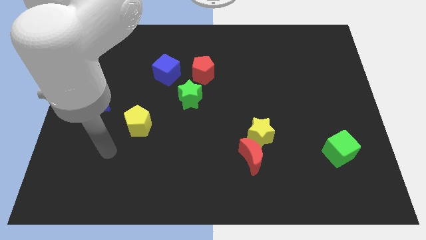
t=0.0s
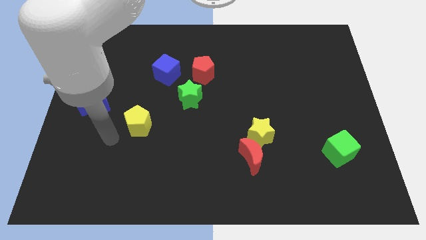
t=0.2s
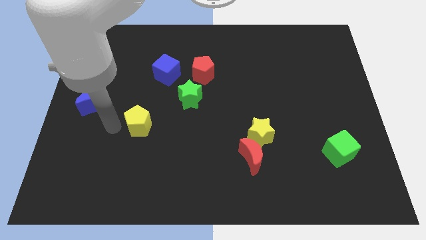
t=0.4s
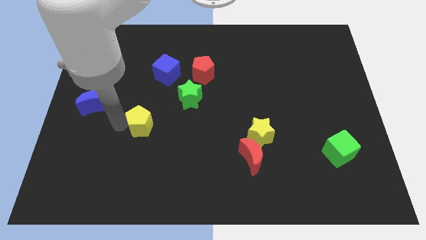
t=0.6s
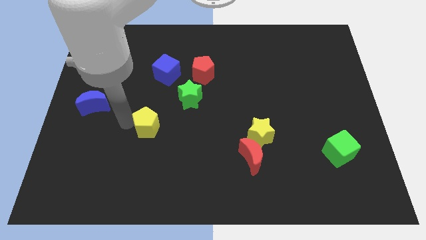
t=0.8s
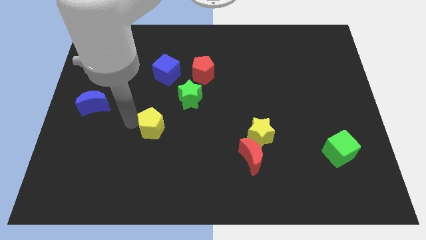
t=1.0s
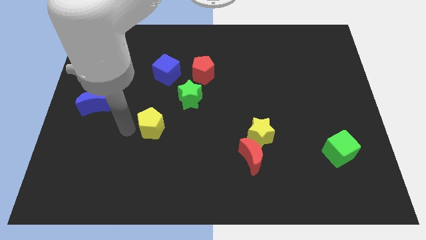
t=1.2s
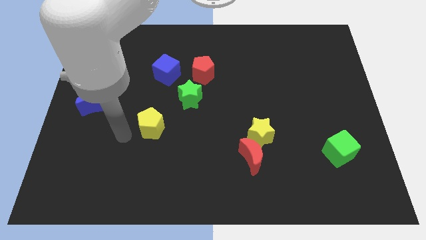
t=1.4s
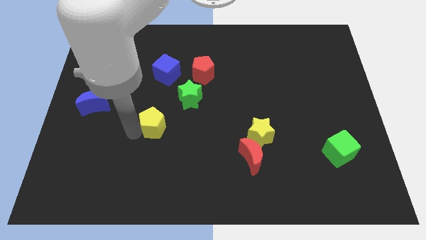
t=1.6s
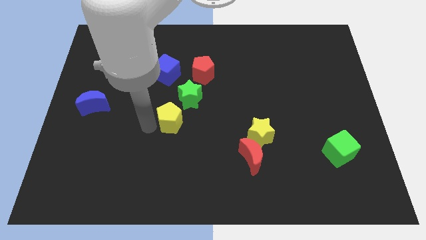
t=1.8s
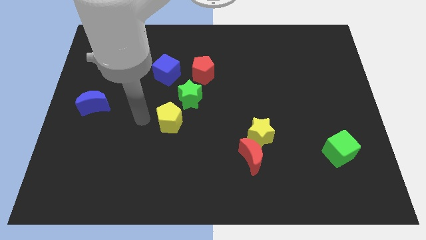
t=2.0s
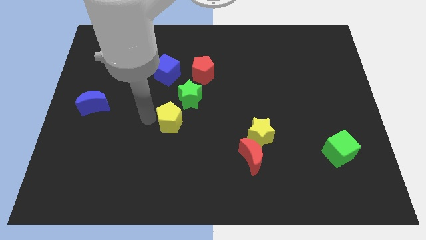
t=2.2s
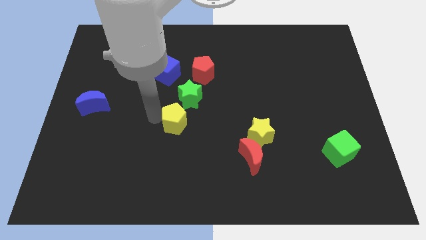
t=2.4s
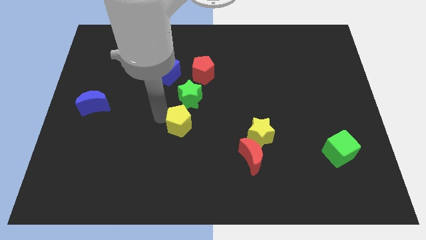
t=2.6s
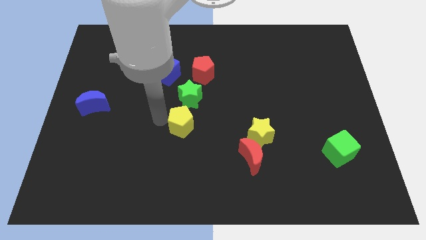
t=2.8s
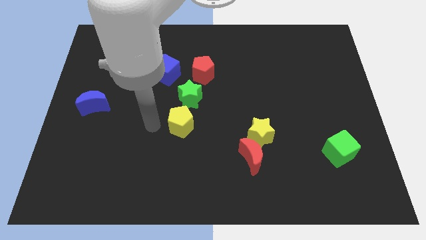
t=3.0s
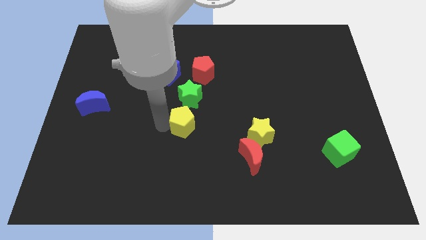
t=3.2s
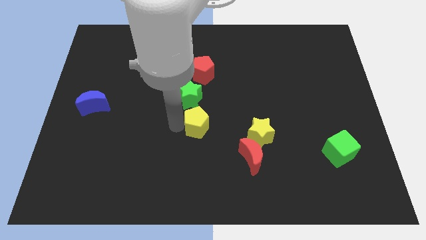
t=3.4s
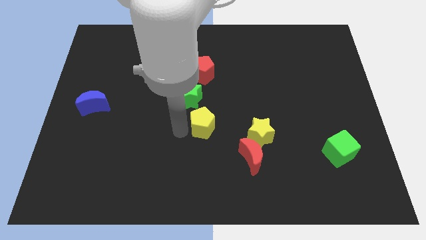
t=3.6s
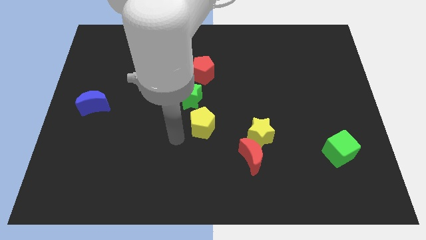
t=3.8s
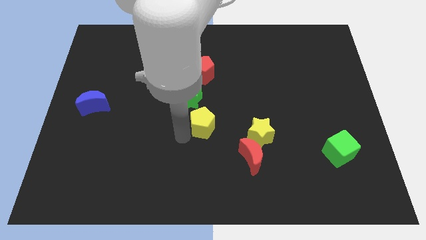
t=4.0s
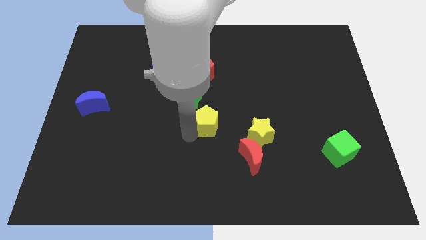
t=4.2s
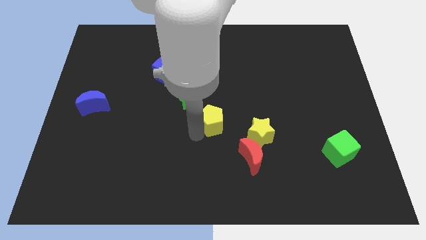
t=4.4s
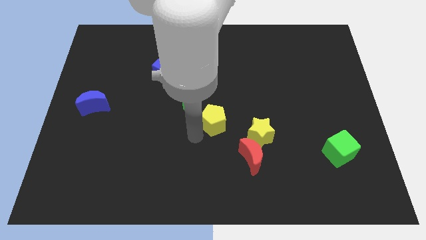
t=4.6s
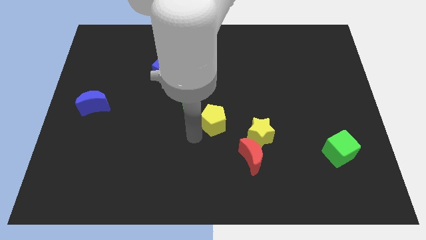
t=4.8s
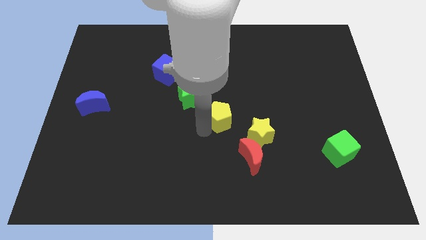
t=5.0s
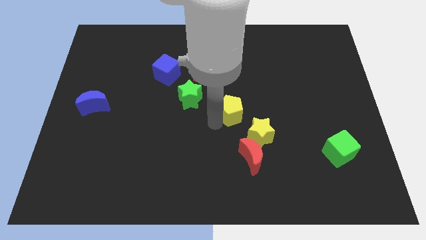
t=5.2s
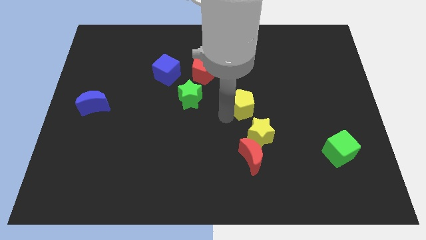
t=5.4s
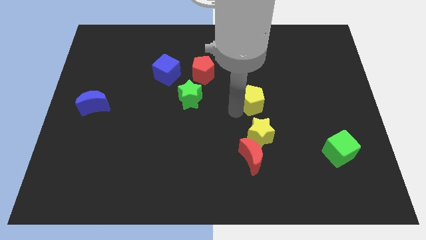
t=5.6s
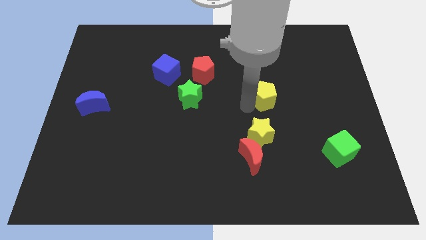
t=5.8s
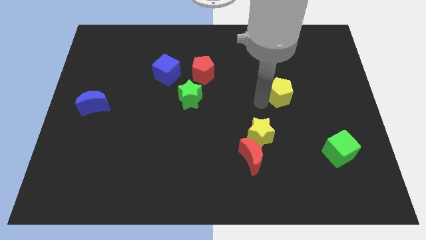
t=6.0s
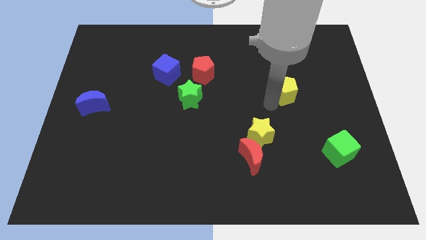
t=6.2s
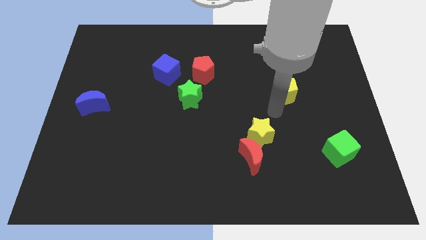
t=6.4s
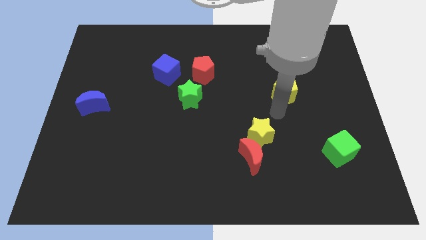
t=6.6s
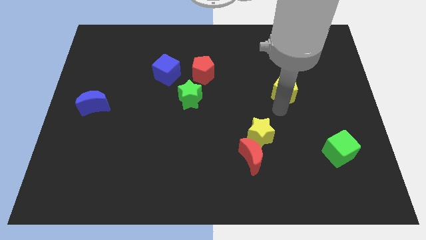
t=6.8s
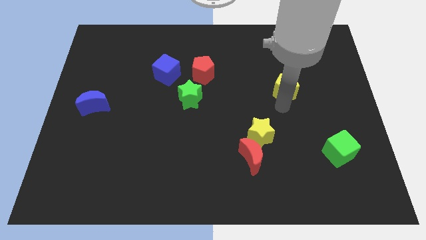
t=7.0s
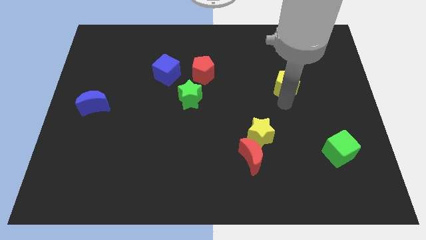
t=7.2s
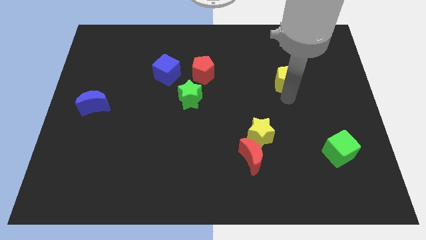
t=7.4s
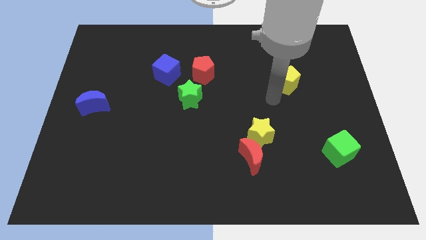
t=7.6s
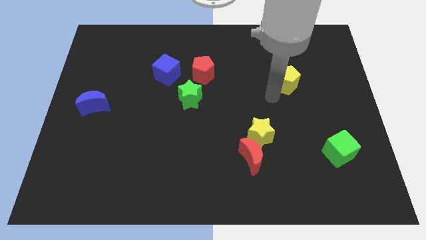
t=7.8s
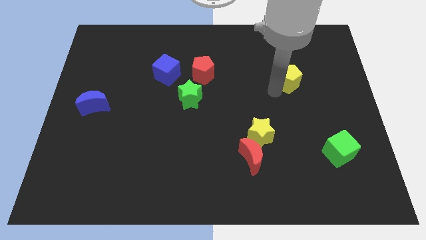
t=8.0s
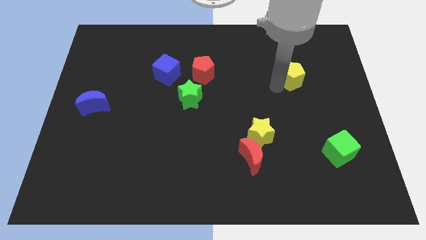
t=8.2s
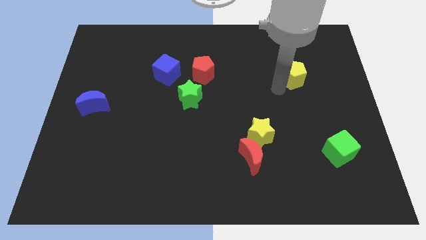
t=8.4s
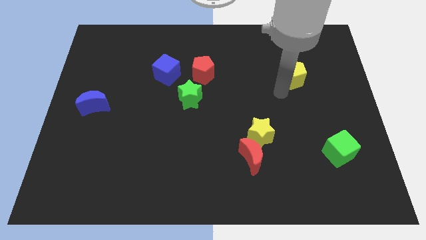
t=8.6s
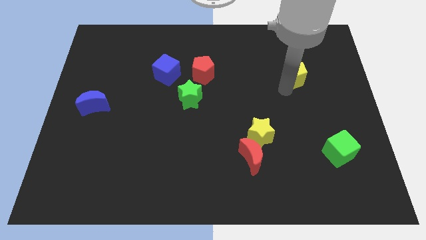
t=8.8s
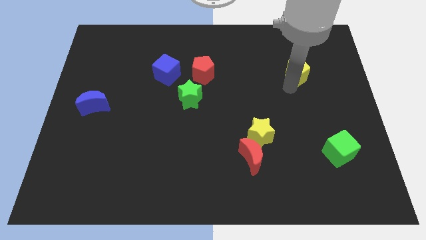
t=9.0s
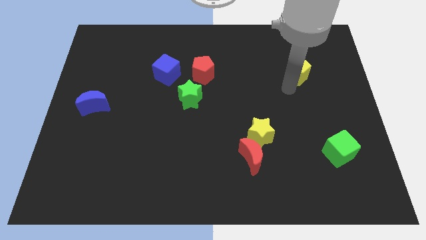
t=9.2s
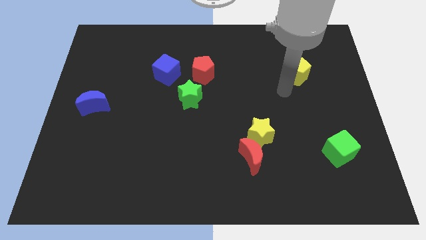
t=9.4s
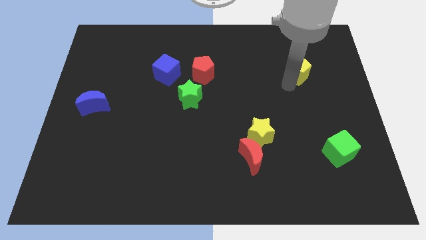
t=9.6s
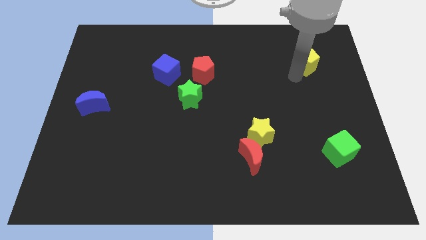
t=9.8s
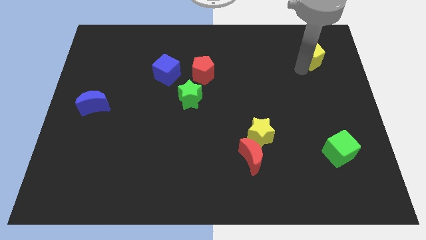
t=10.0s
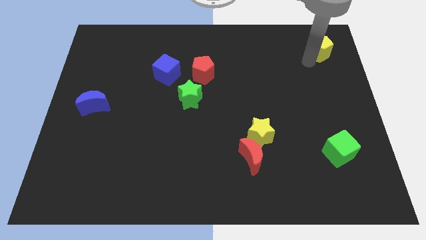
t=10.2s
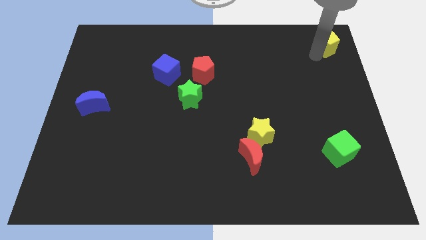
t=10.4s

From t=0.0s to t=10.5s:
put the yellow pentagon to the upper right corner

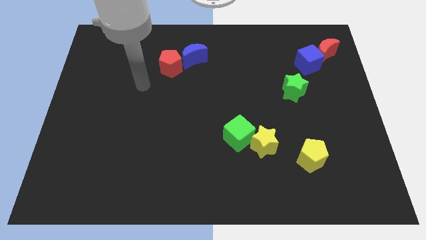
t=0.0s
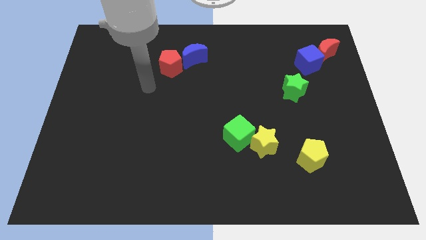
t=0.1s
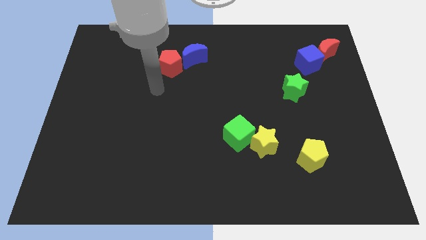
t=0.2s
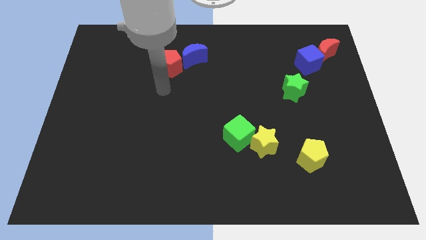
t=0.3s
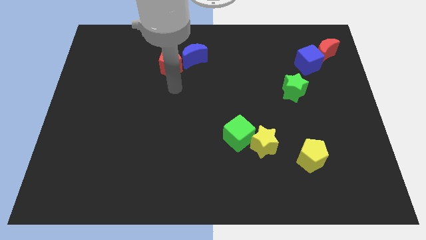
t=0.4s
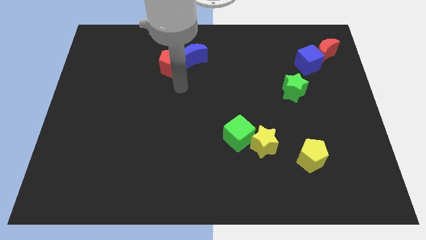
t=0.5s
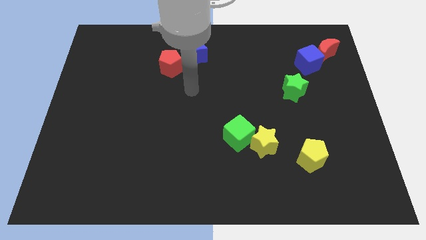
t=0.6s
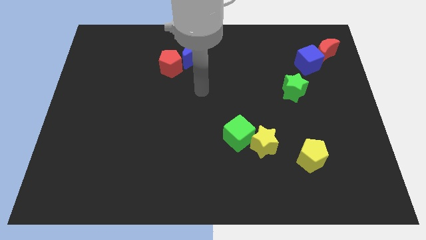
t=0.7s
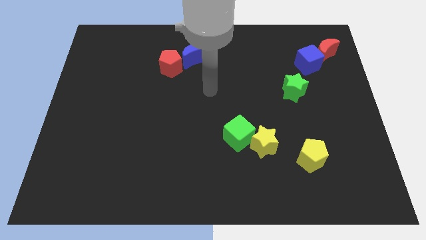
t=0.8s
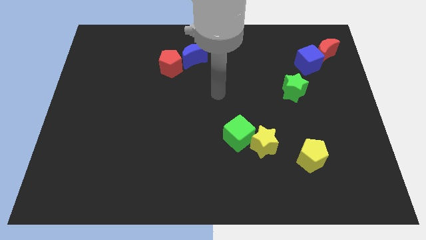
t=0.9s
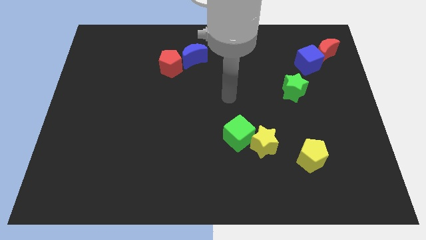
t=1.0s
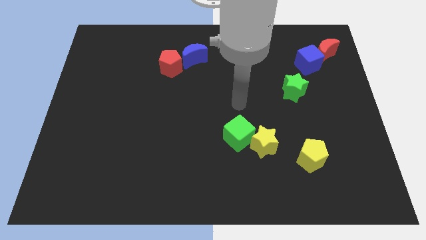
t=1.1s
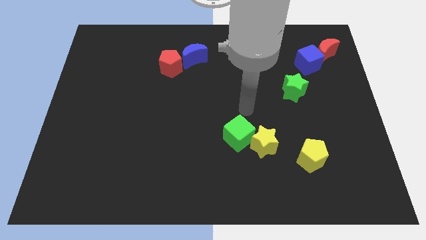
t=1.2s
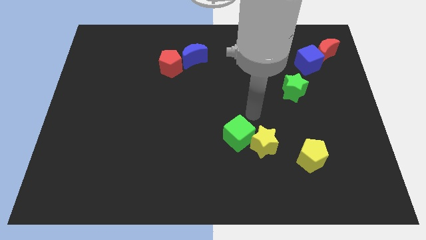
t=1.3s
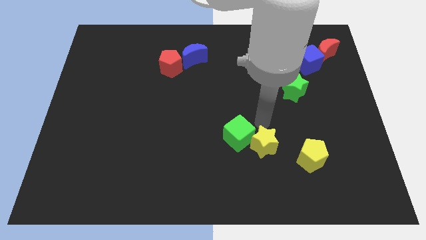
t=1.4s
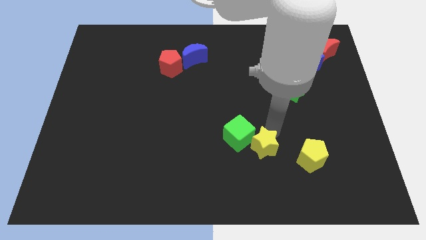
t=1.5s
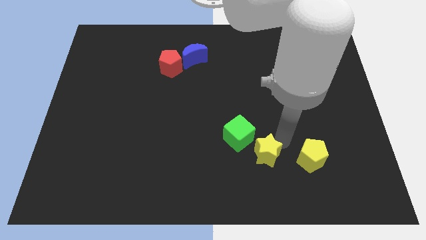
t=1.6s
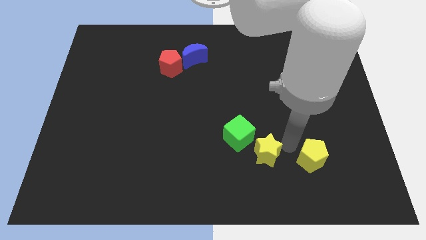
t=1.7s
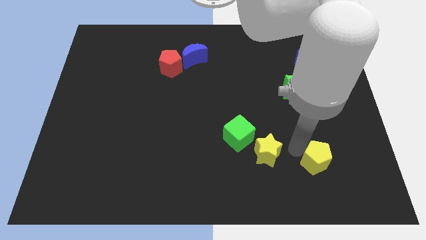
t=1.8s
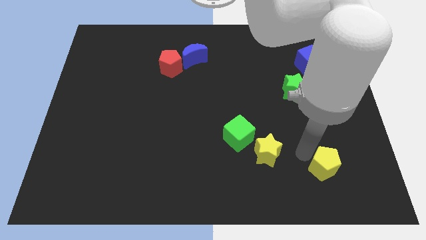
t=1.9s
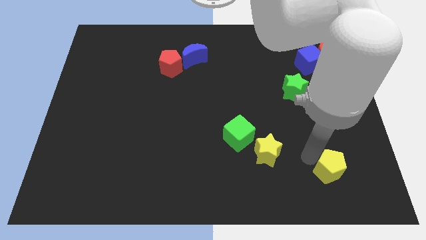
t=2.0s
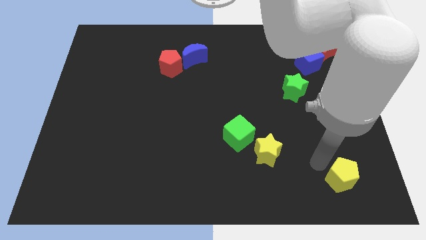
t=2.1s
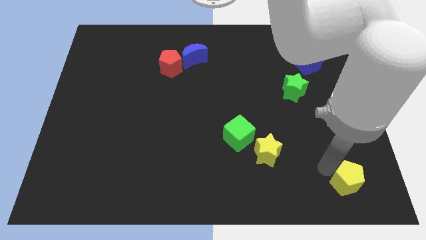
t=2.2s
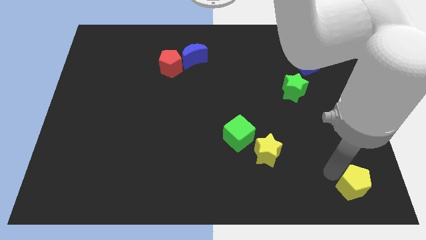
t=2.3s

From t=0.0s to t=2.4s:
slide the yellow pentagon to the bottom right of the board
